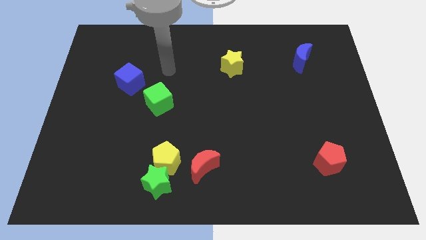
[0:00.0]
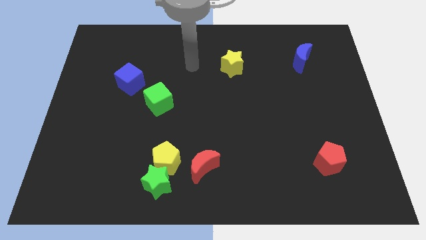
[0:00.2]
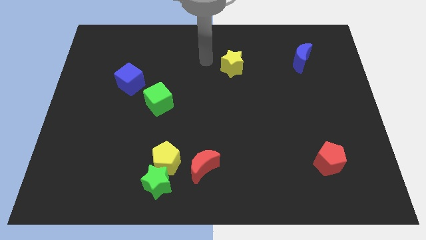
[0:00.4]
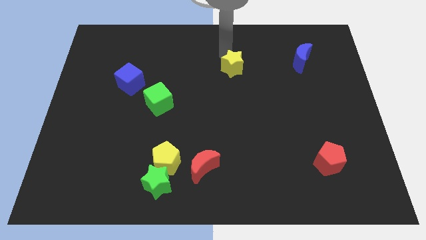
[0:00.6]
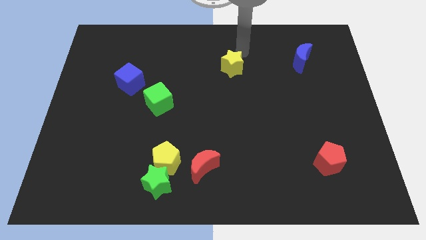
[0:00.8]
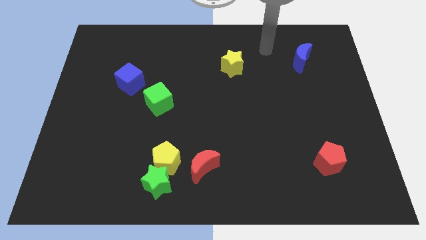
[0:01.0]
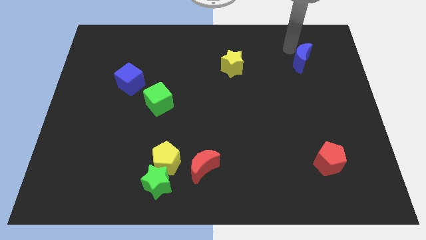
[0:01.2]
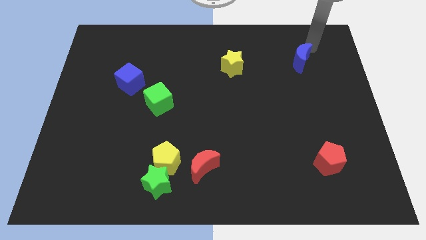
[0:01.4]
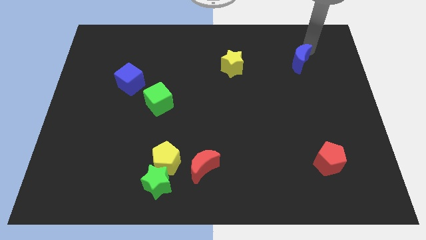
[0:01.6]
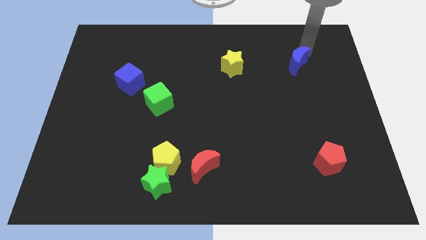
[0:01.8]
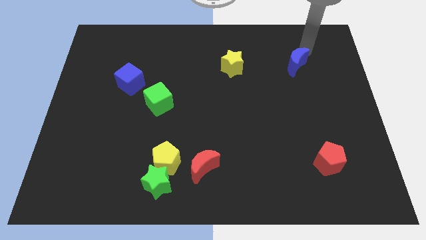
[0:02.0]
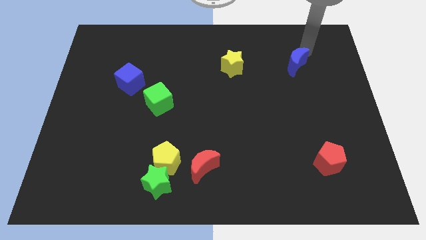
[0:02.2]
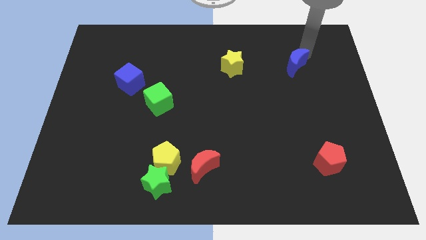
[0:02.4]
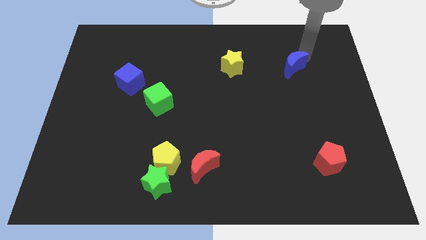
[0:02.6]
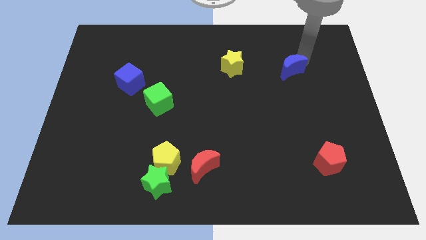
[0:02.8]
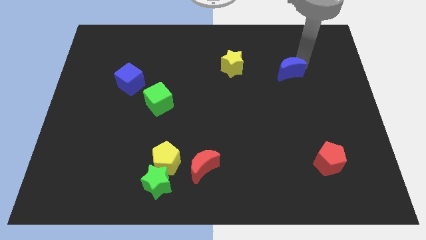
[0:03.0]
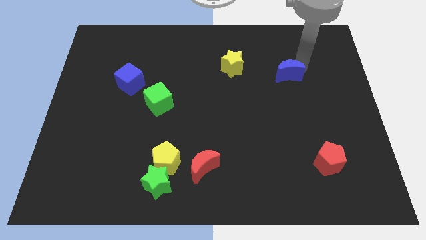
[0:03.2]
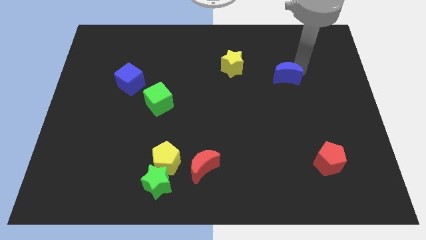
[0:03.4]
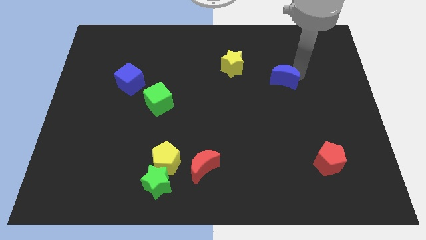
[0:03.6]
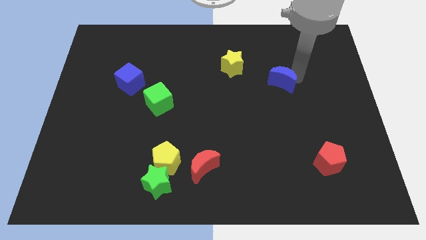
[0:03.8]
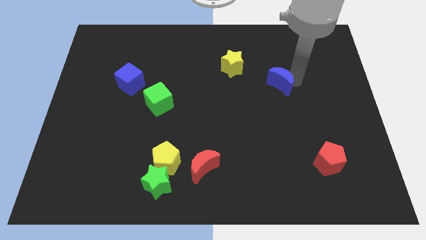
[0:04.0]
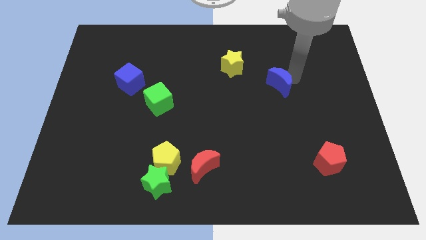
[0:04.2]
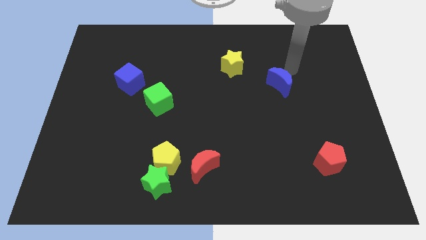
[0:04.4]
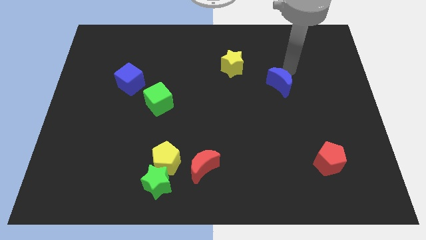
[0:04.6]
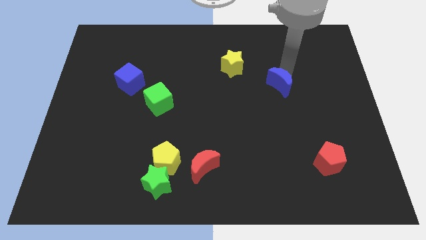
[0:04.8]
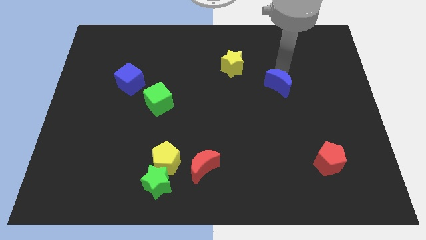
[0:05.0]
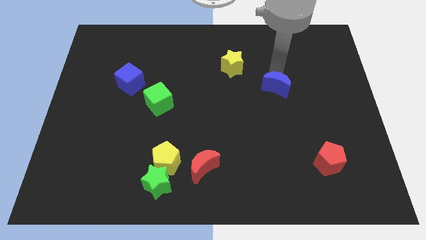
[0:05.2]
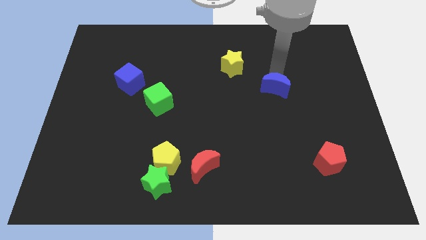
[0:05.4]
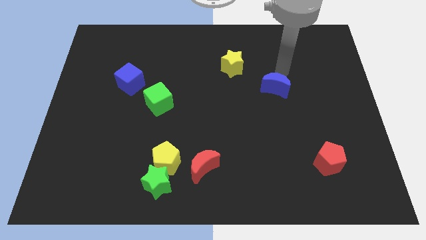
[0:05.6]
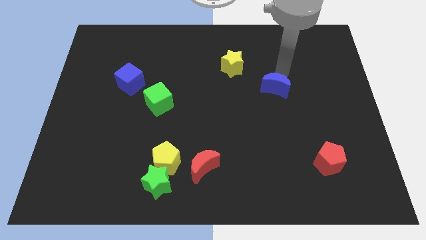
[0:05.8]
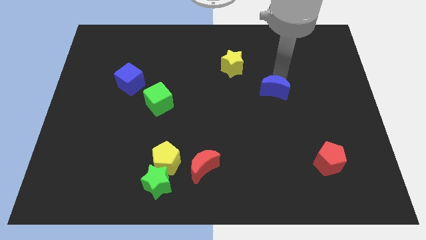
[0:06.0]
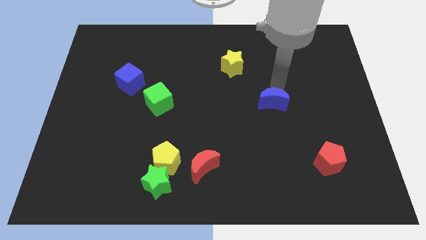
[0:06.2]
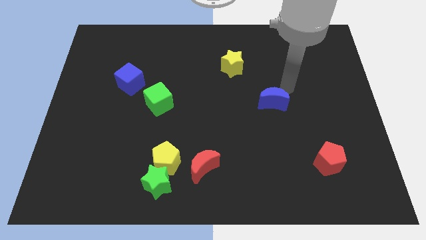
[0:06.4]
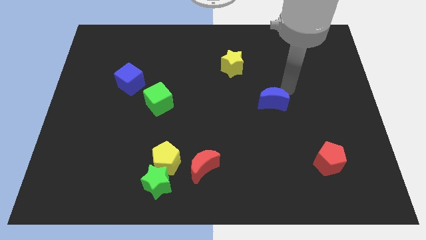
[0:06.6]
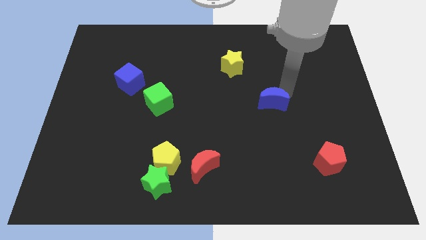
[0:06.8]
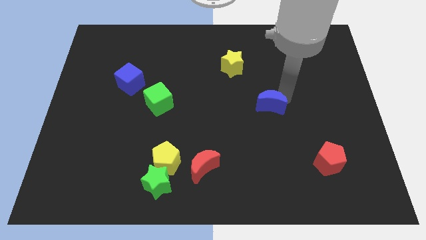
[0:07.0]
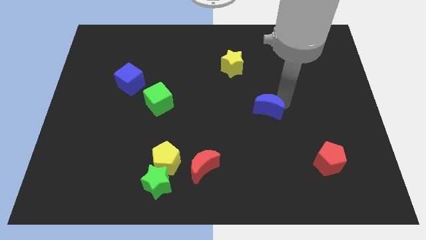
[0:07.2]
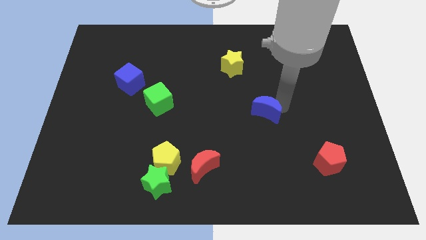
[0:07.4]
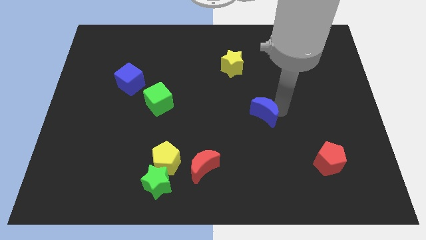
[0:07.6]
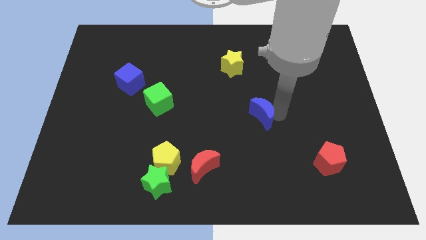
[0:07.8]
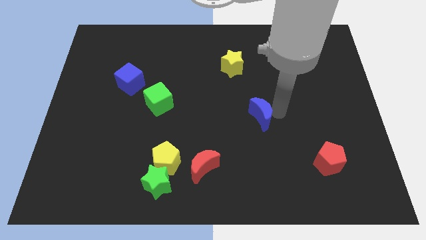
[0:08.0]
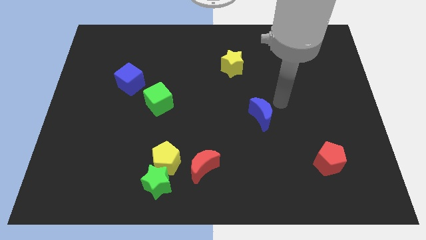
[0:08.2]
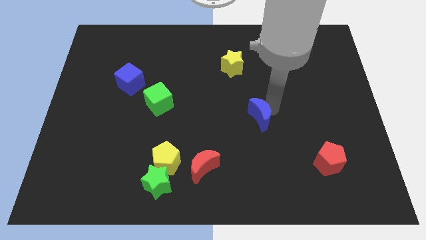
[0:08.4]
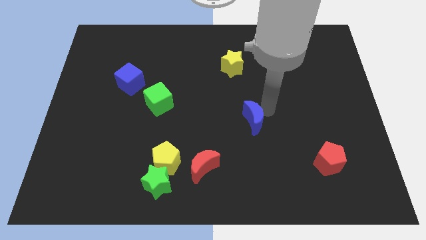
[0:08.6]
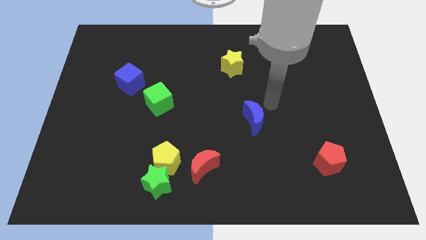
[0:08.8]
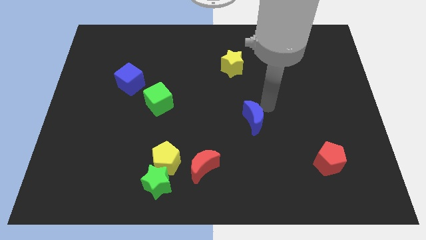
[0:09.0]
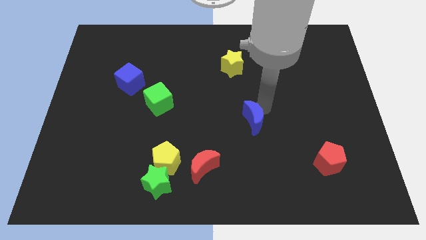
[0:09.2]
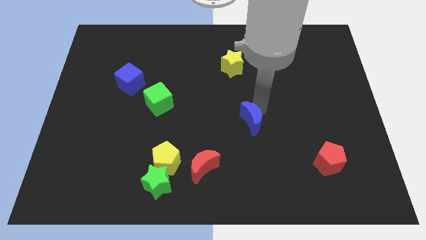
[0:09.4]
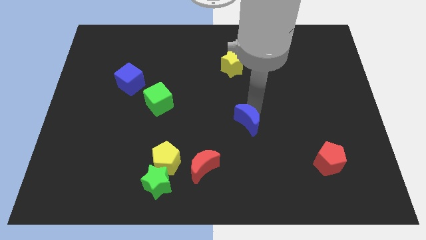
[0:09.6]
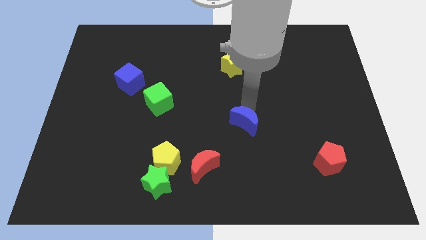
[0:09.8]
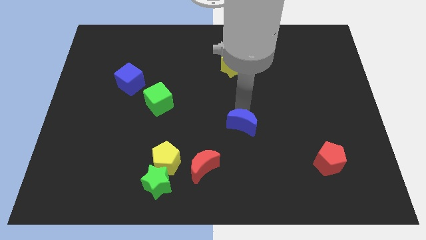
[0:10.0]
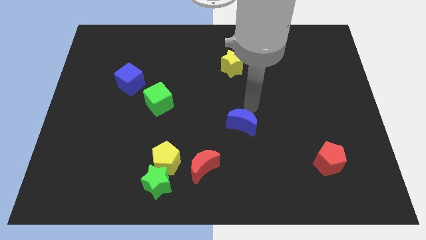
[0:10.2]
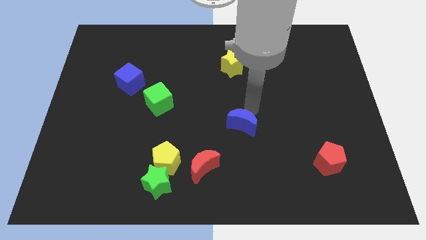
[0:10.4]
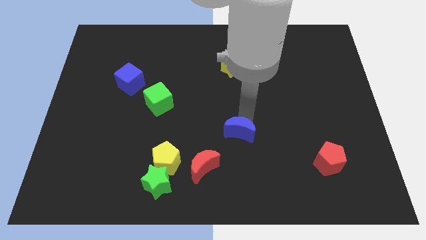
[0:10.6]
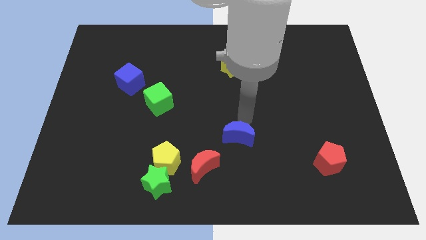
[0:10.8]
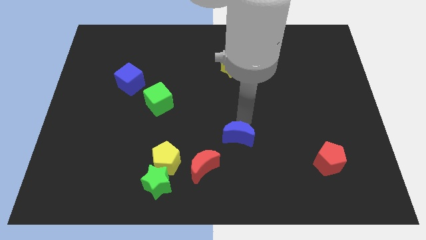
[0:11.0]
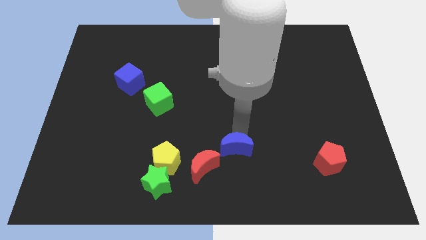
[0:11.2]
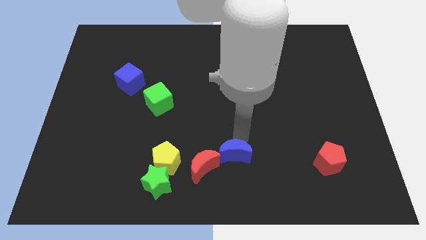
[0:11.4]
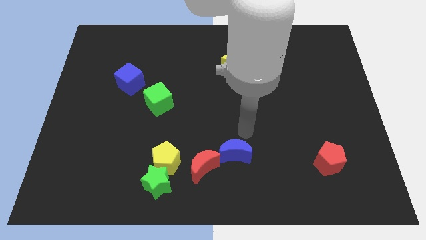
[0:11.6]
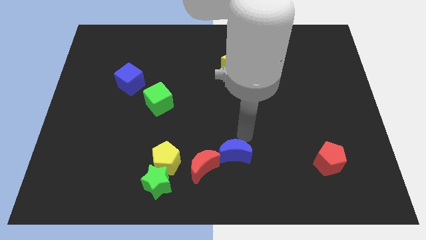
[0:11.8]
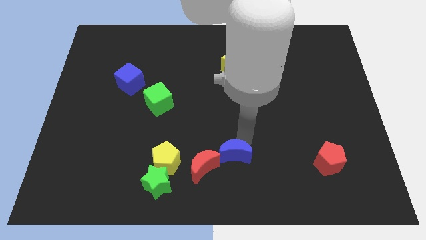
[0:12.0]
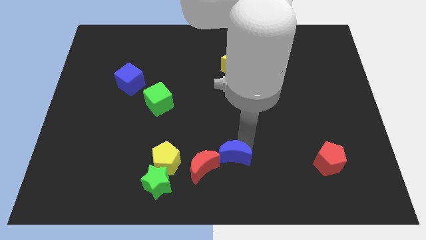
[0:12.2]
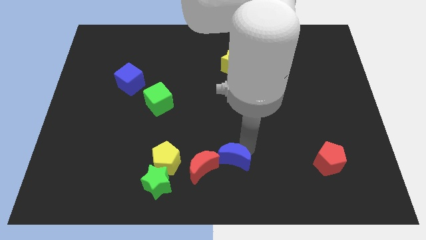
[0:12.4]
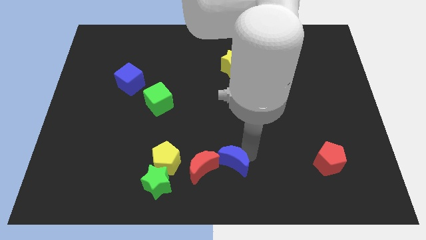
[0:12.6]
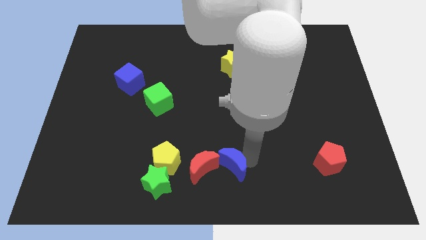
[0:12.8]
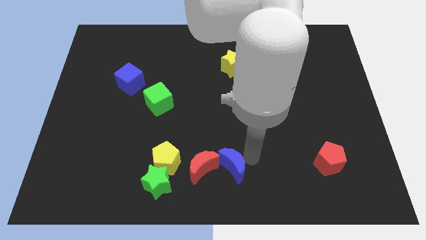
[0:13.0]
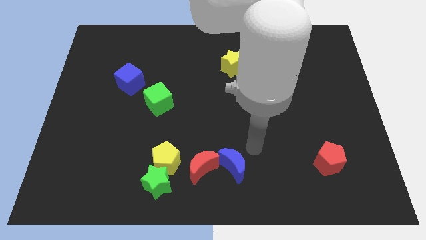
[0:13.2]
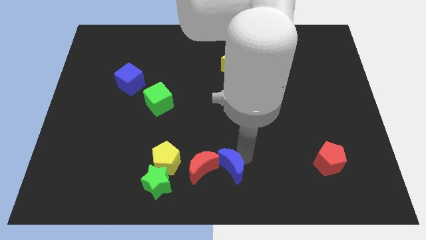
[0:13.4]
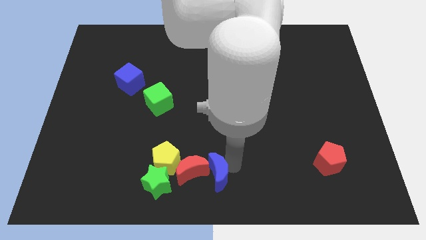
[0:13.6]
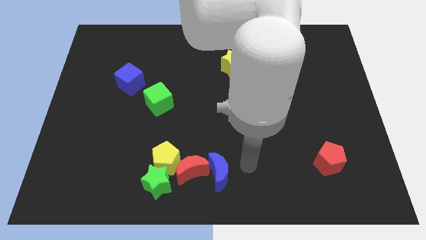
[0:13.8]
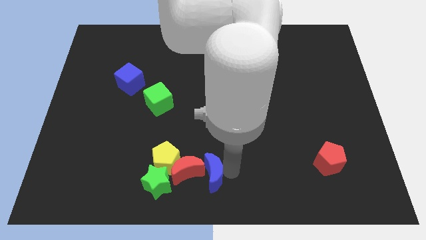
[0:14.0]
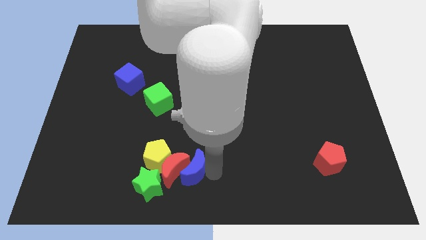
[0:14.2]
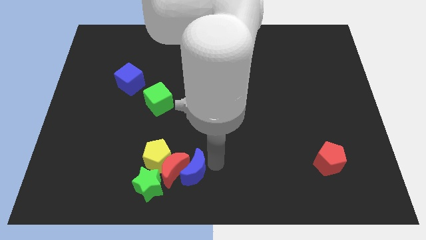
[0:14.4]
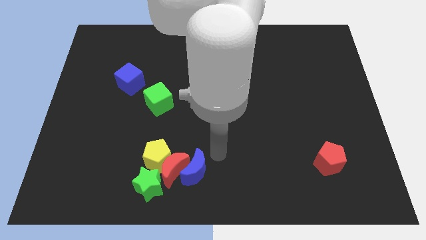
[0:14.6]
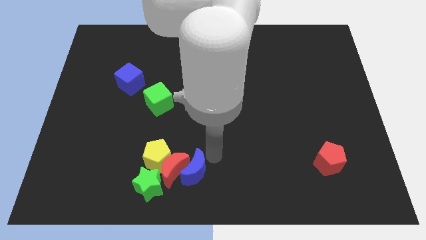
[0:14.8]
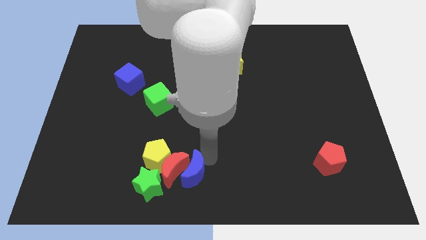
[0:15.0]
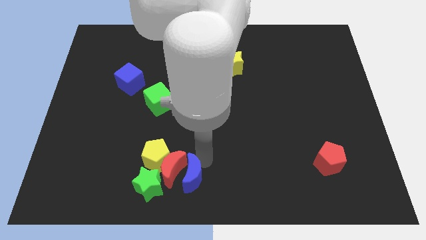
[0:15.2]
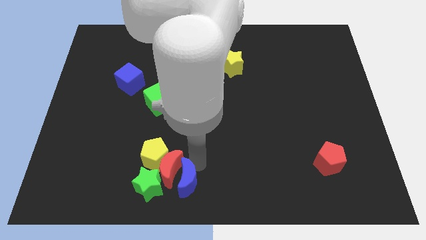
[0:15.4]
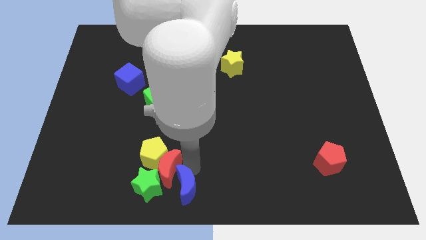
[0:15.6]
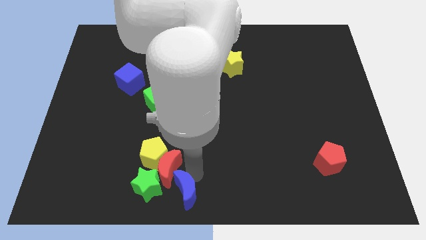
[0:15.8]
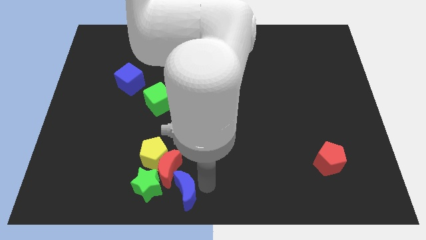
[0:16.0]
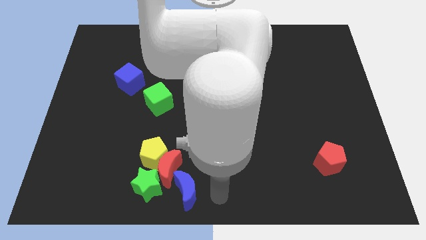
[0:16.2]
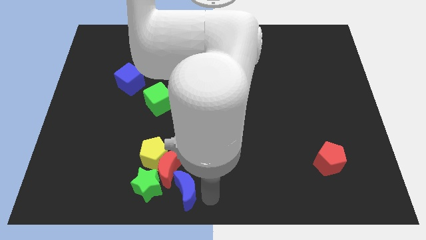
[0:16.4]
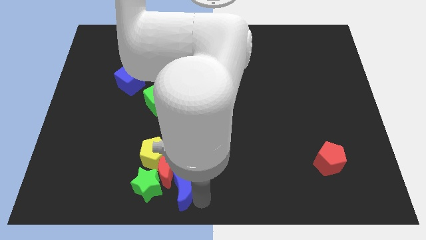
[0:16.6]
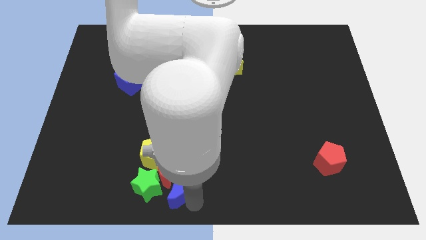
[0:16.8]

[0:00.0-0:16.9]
move the blue moon towards the green star
